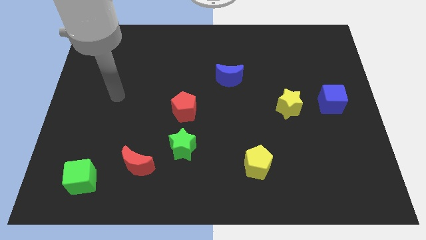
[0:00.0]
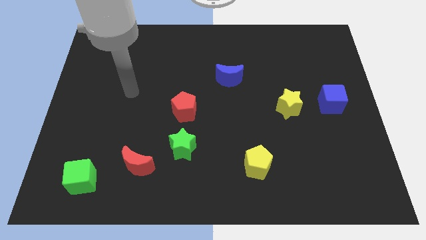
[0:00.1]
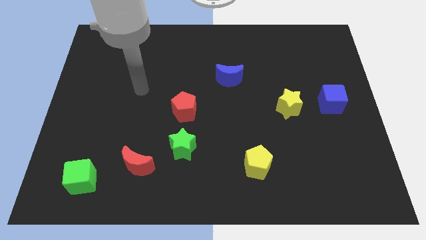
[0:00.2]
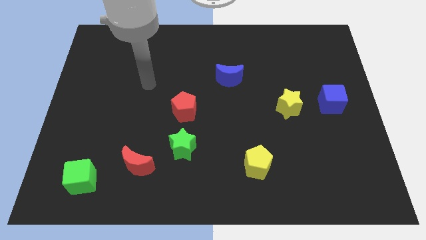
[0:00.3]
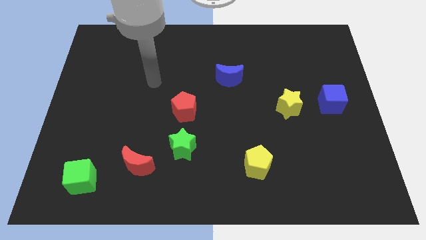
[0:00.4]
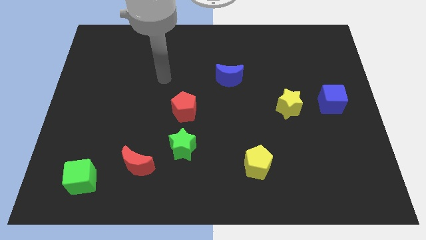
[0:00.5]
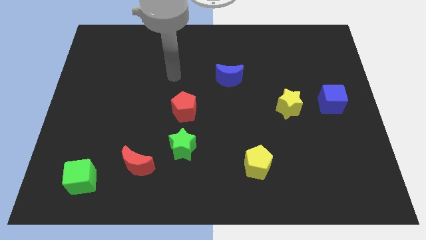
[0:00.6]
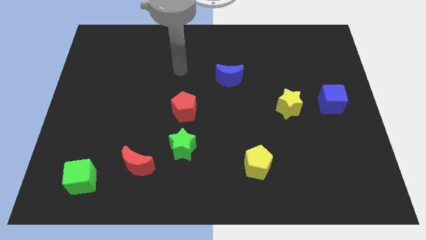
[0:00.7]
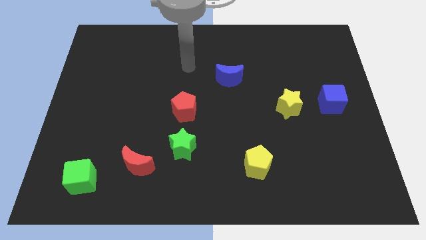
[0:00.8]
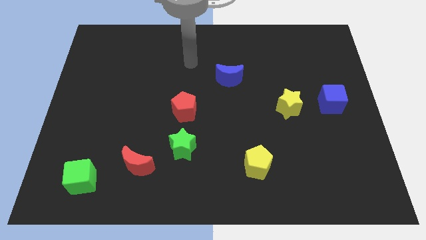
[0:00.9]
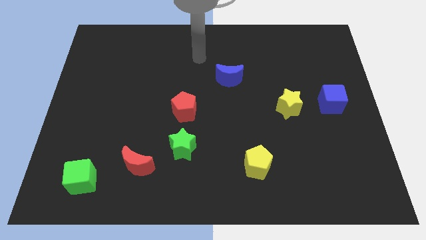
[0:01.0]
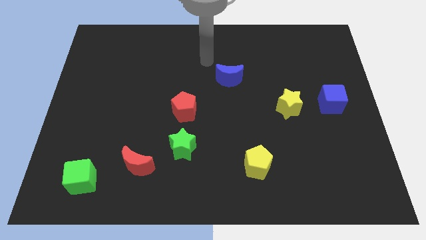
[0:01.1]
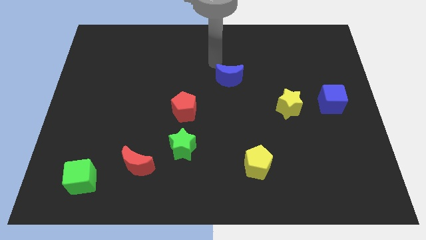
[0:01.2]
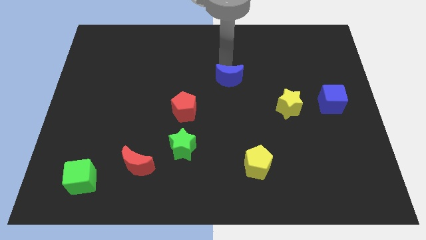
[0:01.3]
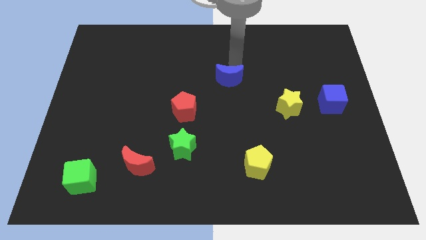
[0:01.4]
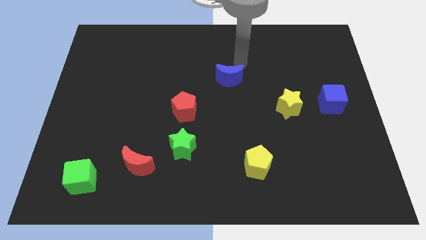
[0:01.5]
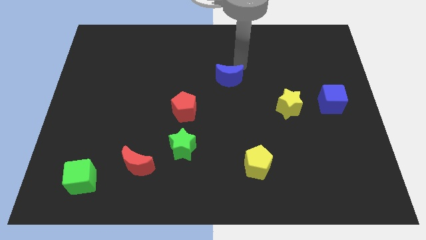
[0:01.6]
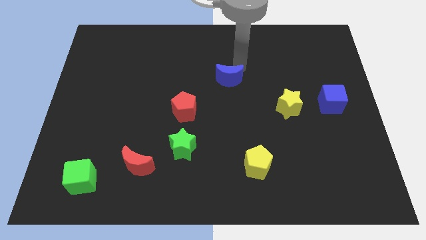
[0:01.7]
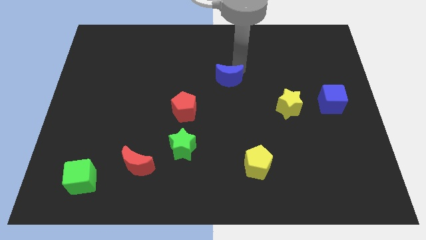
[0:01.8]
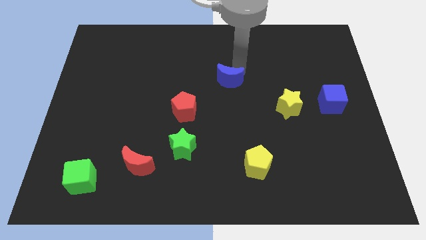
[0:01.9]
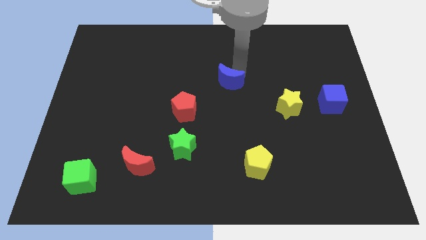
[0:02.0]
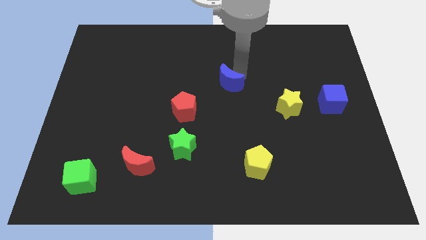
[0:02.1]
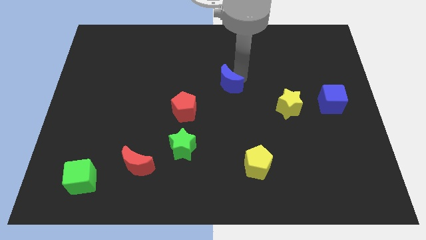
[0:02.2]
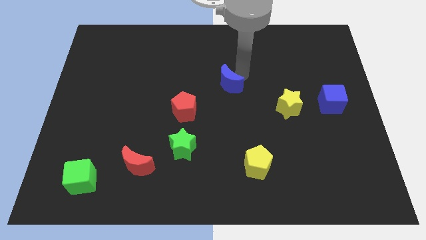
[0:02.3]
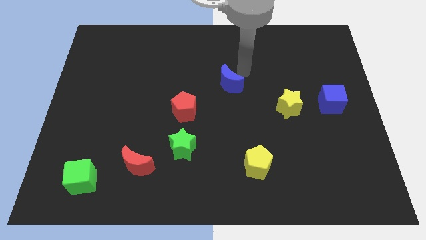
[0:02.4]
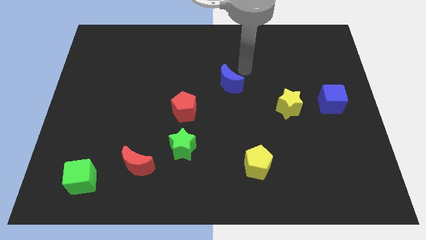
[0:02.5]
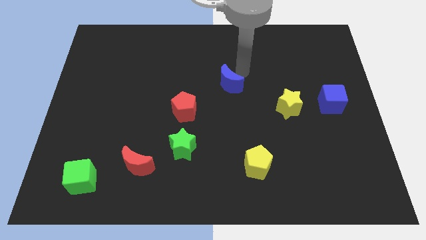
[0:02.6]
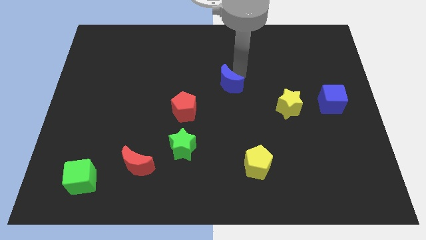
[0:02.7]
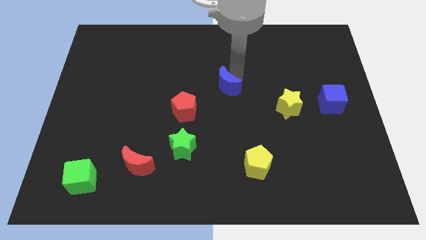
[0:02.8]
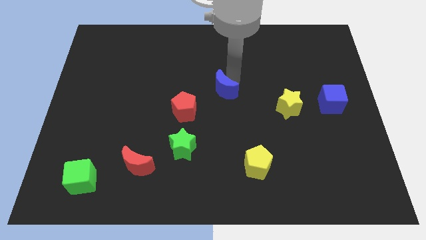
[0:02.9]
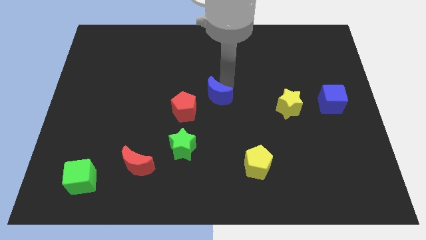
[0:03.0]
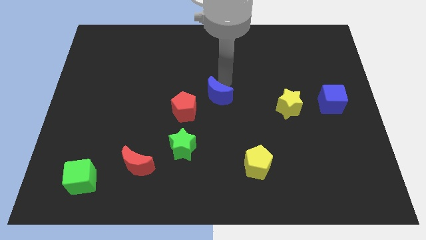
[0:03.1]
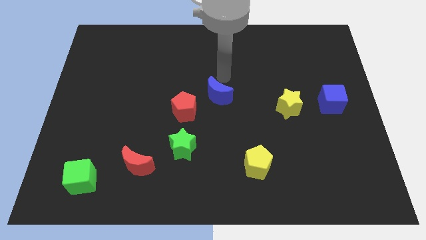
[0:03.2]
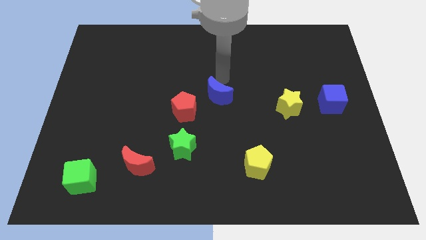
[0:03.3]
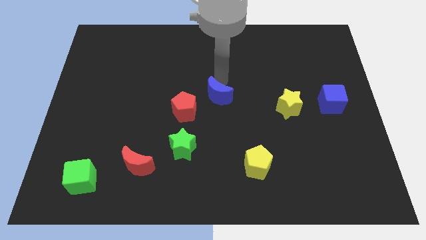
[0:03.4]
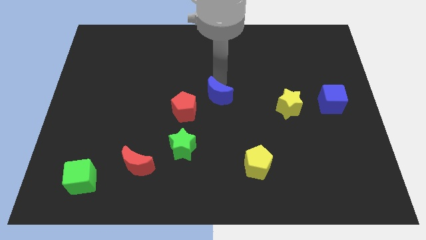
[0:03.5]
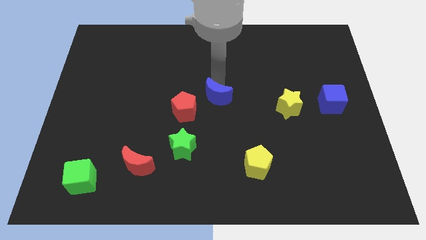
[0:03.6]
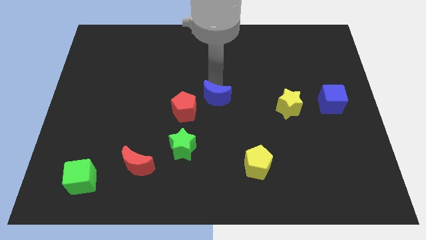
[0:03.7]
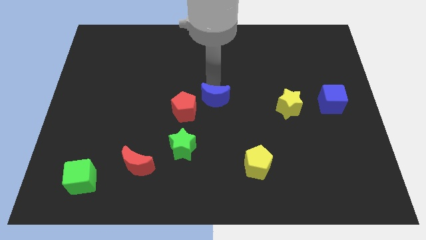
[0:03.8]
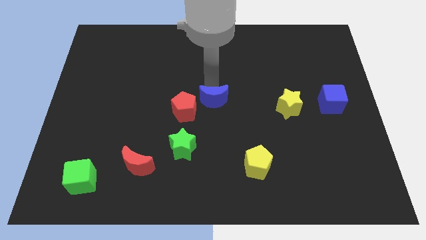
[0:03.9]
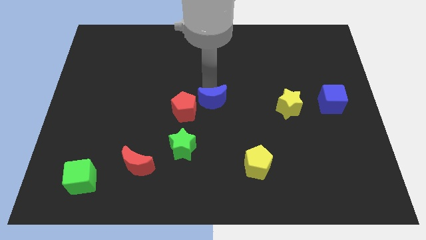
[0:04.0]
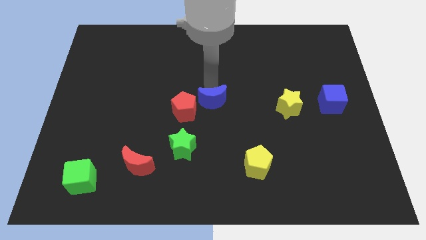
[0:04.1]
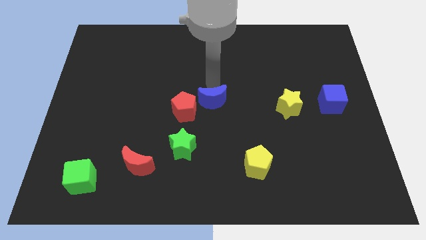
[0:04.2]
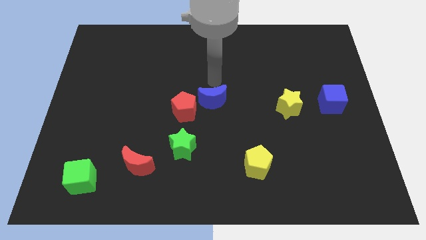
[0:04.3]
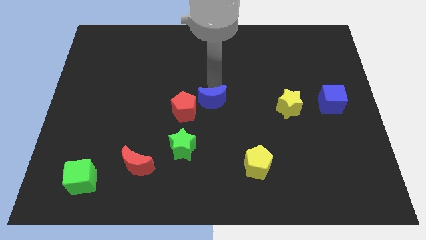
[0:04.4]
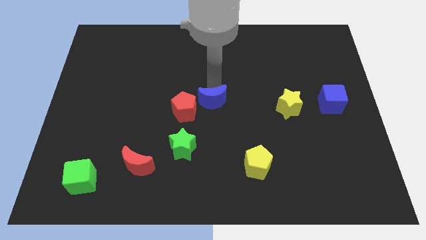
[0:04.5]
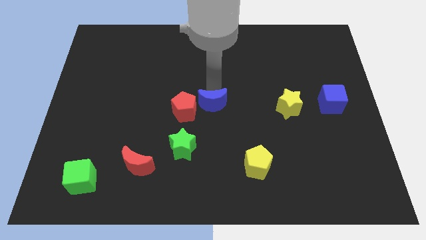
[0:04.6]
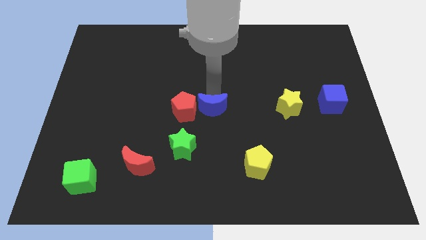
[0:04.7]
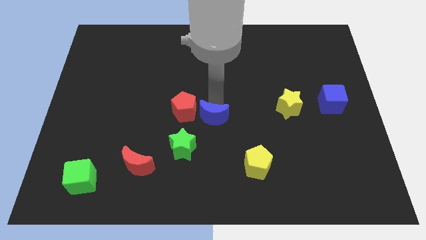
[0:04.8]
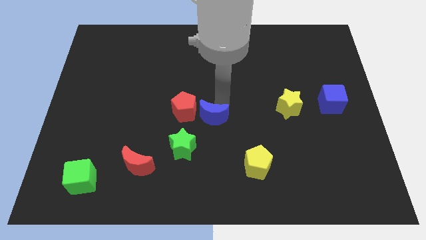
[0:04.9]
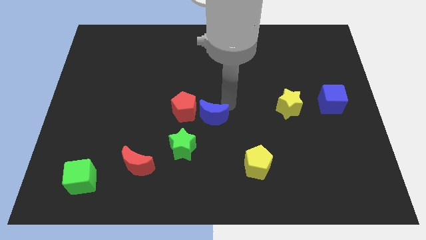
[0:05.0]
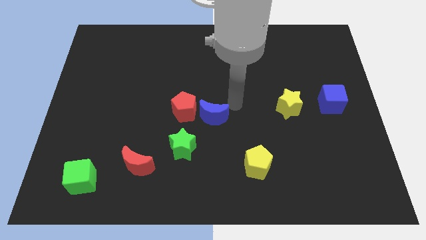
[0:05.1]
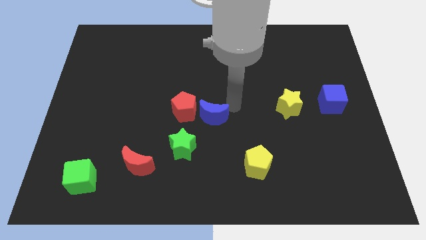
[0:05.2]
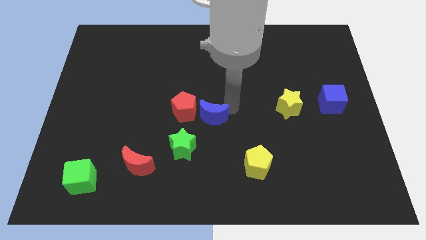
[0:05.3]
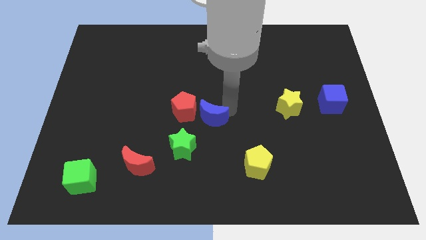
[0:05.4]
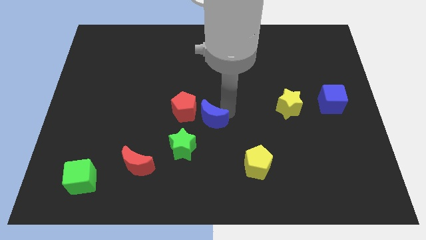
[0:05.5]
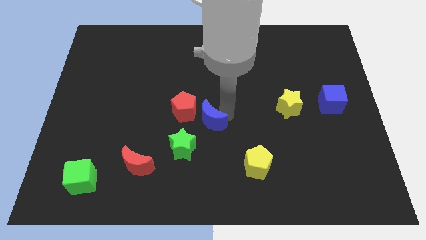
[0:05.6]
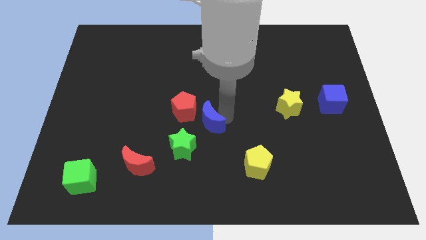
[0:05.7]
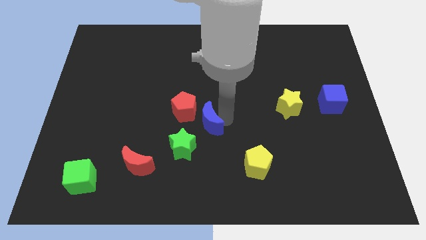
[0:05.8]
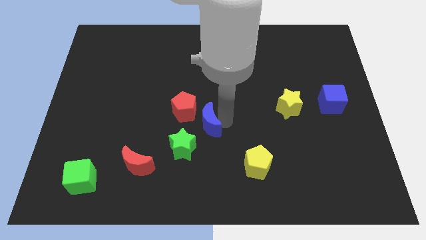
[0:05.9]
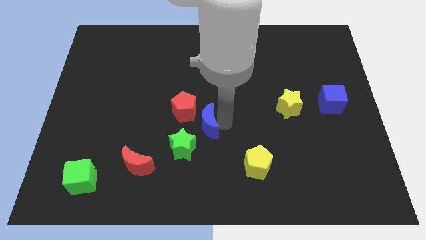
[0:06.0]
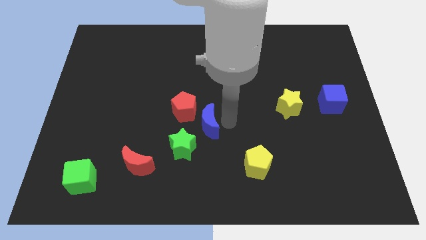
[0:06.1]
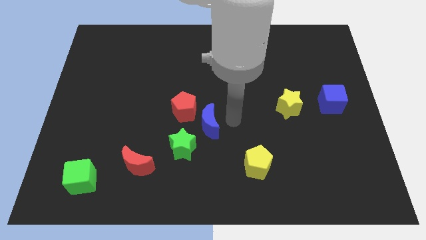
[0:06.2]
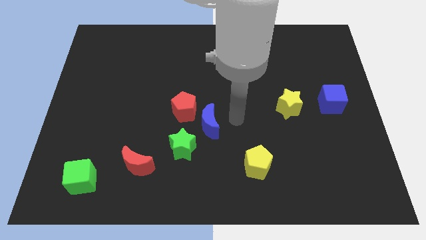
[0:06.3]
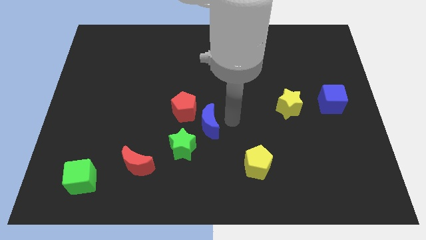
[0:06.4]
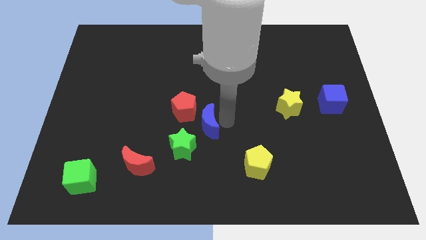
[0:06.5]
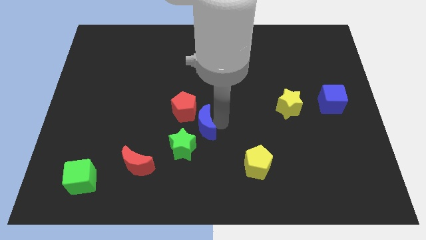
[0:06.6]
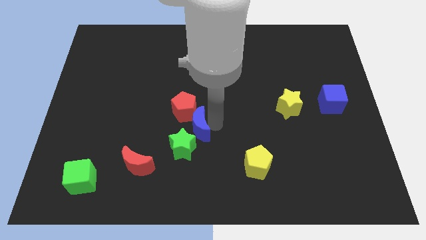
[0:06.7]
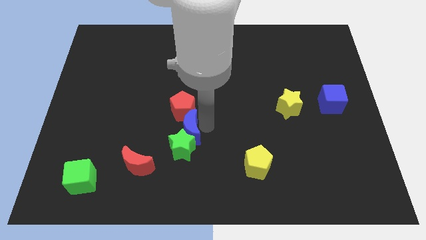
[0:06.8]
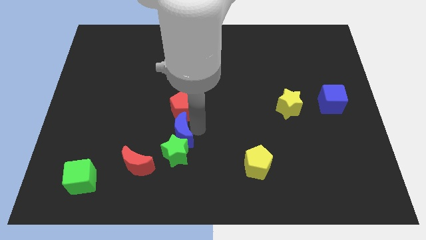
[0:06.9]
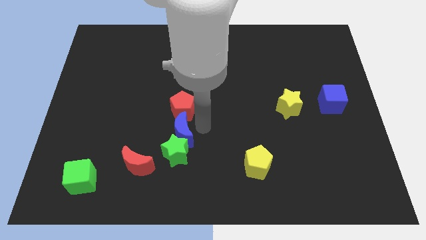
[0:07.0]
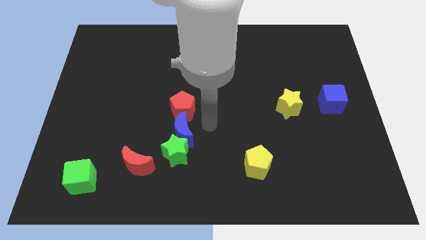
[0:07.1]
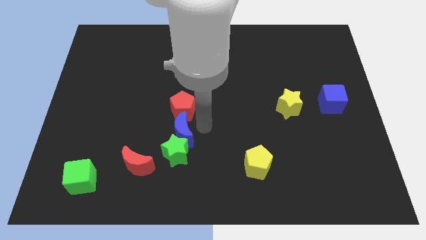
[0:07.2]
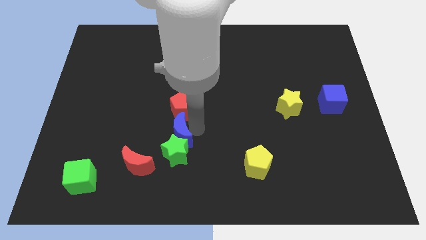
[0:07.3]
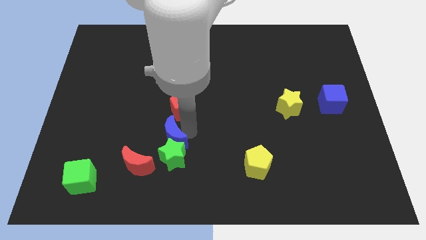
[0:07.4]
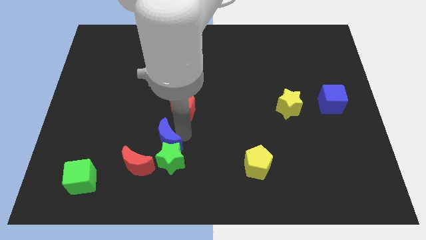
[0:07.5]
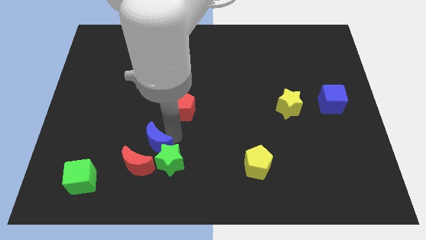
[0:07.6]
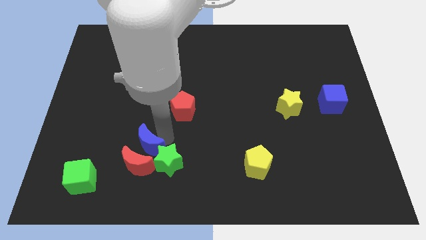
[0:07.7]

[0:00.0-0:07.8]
slide the blue moon towards the red moon
